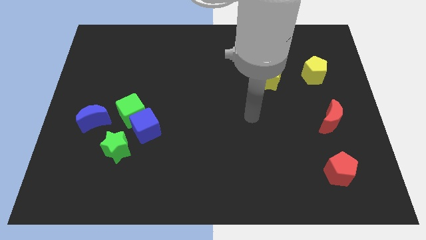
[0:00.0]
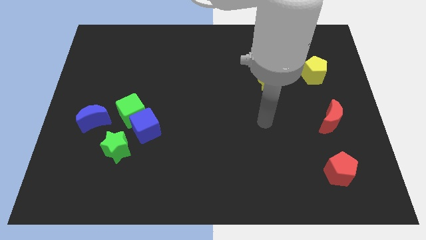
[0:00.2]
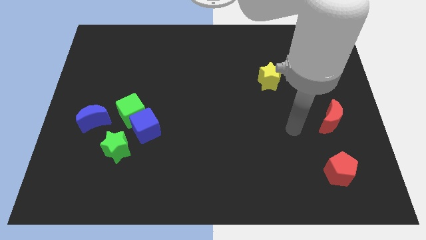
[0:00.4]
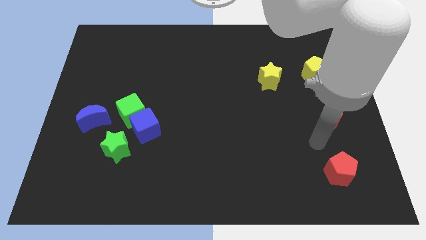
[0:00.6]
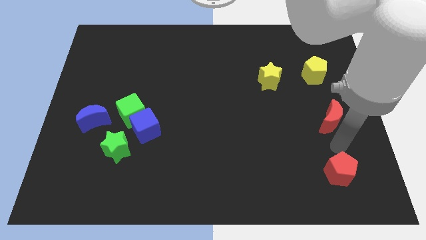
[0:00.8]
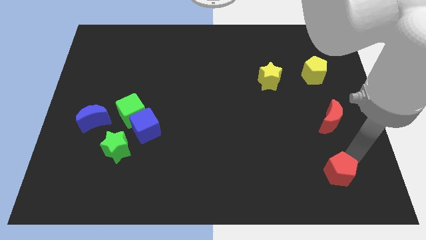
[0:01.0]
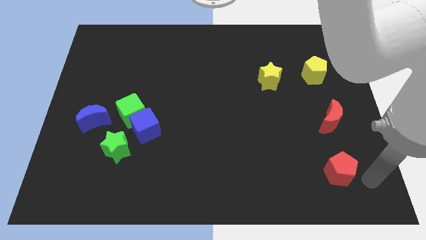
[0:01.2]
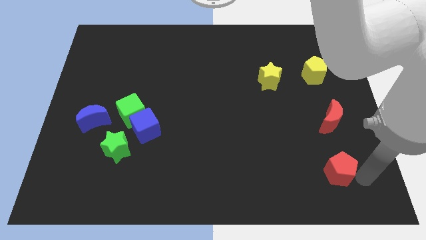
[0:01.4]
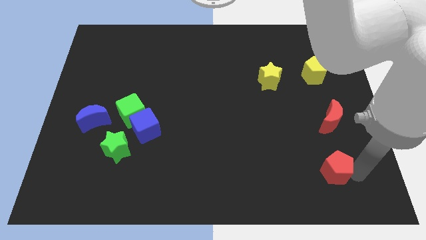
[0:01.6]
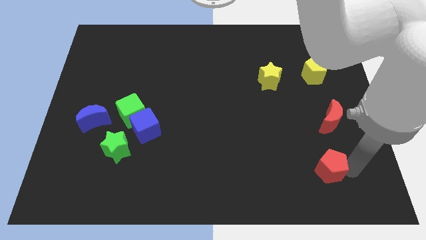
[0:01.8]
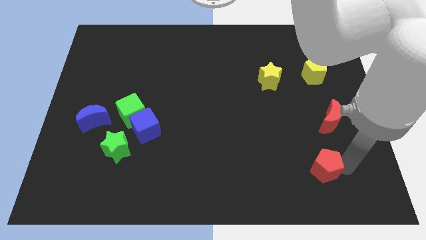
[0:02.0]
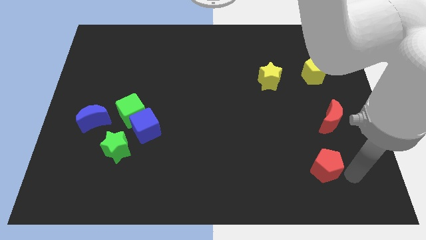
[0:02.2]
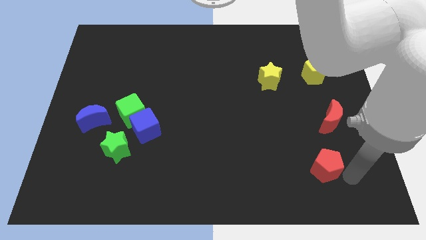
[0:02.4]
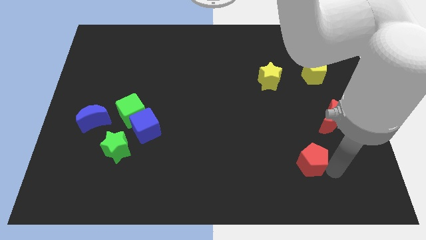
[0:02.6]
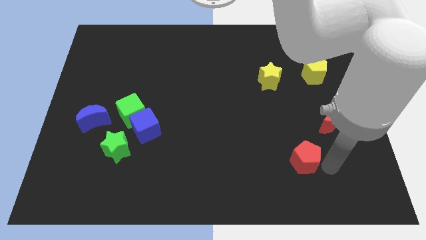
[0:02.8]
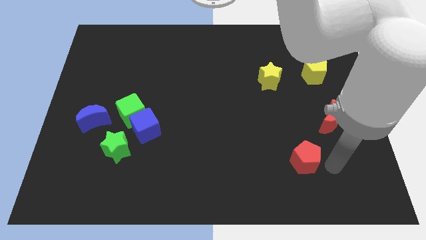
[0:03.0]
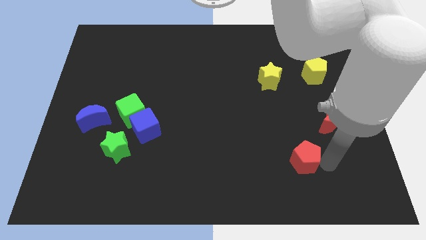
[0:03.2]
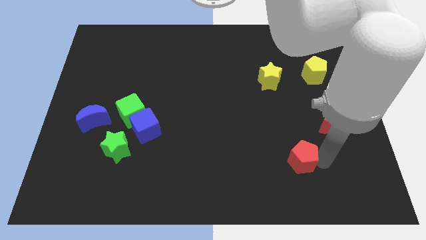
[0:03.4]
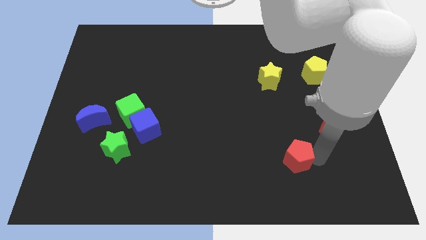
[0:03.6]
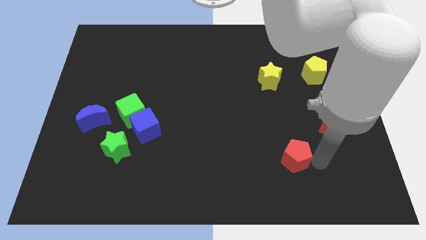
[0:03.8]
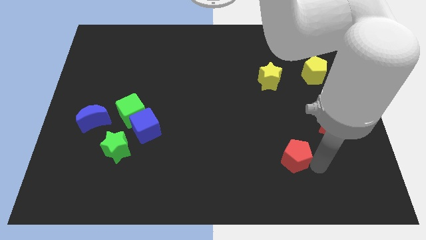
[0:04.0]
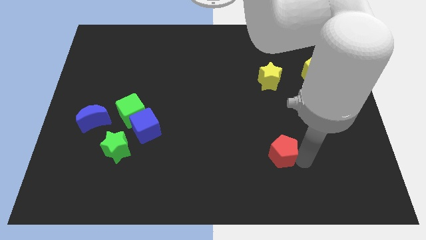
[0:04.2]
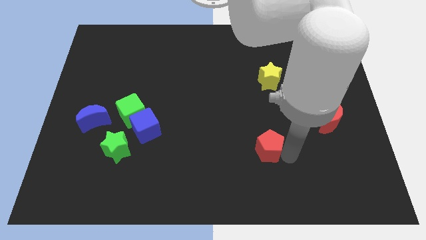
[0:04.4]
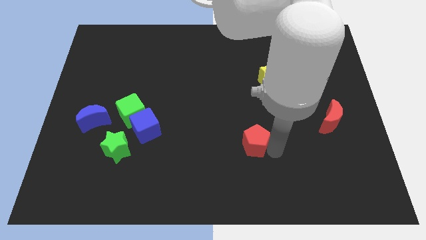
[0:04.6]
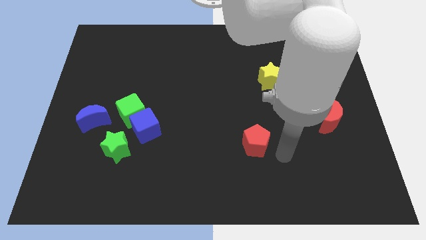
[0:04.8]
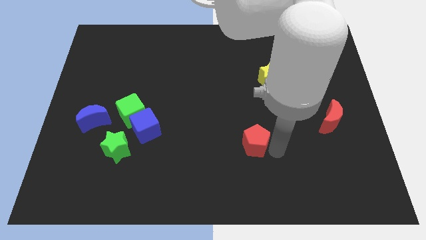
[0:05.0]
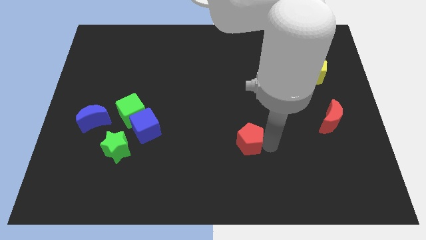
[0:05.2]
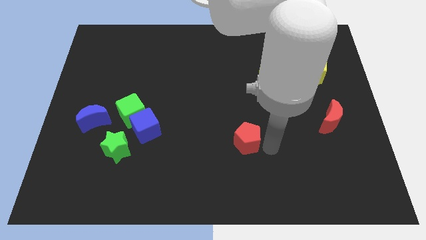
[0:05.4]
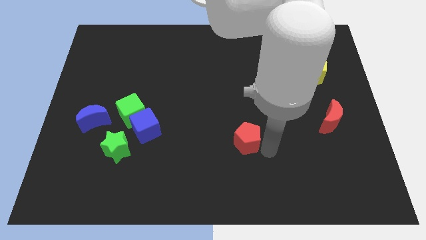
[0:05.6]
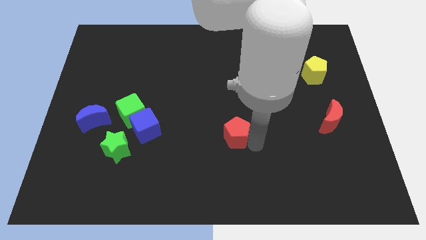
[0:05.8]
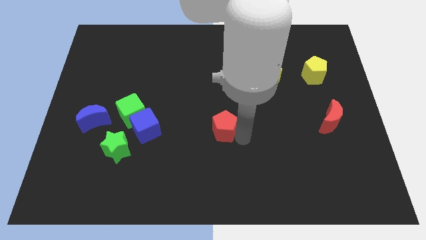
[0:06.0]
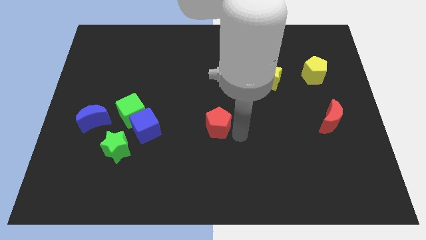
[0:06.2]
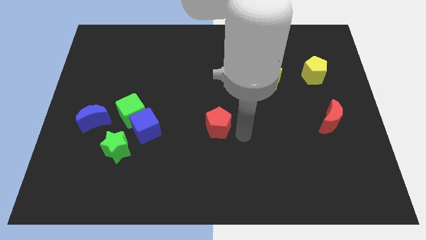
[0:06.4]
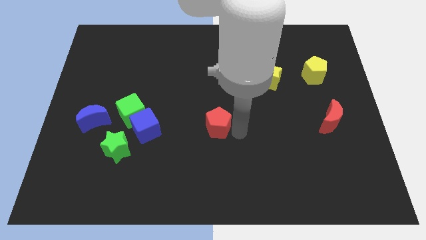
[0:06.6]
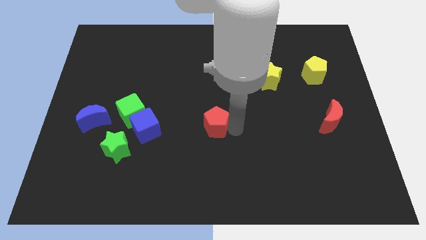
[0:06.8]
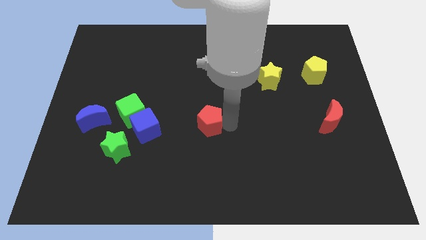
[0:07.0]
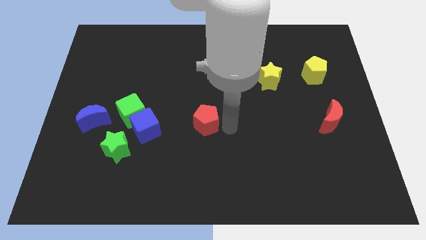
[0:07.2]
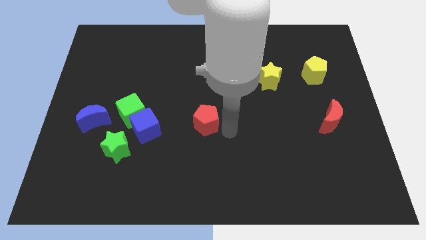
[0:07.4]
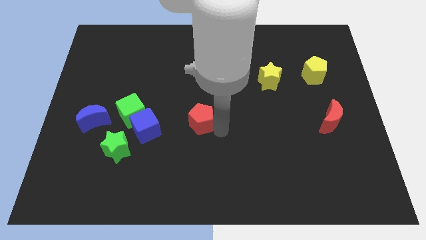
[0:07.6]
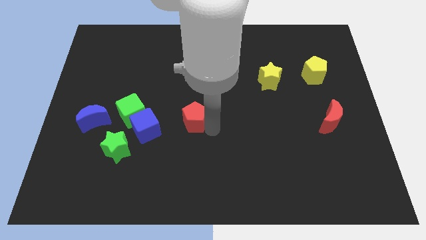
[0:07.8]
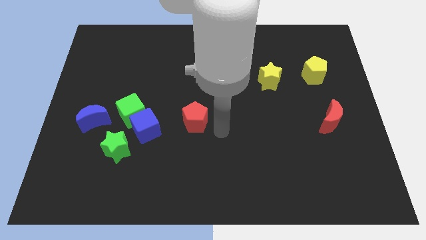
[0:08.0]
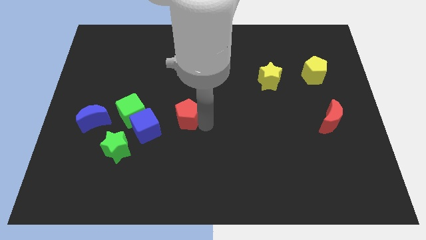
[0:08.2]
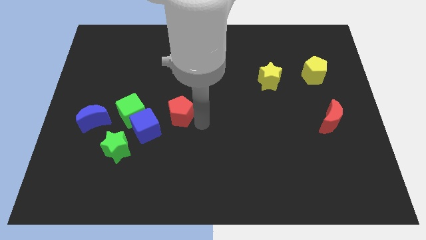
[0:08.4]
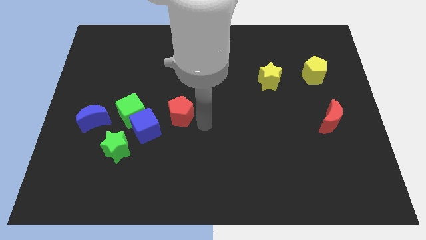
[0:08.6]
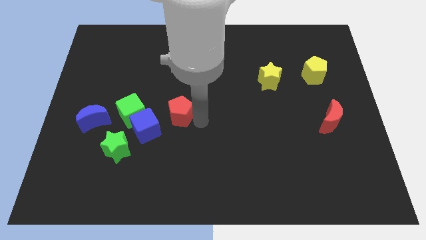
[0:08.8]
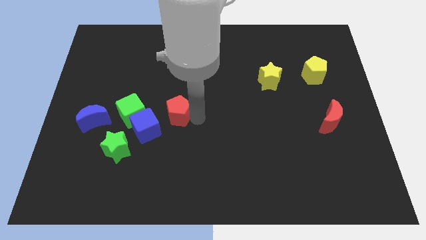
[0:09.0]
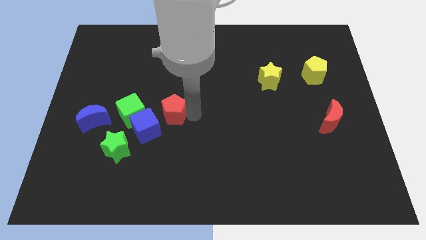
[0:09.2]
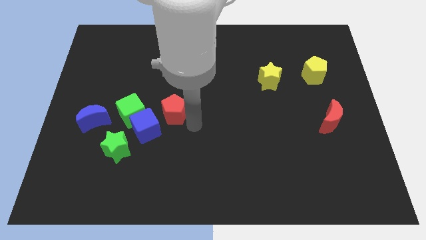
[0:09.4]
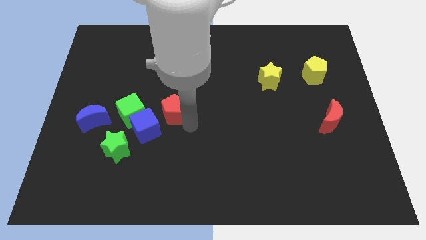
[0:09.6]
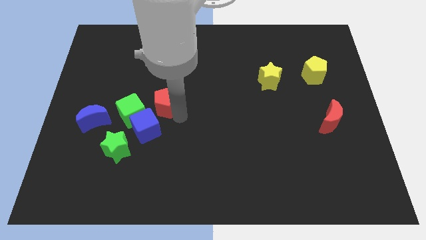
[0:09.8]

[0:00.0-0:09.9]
slide the red pentagon diagonally up and to the right of the green cube

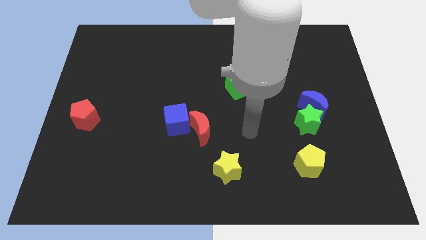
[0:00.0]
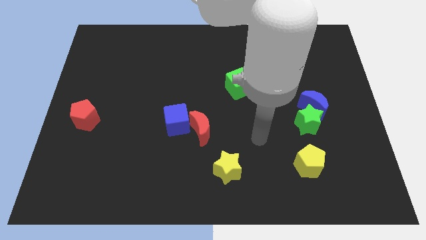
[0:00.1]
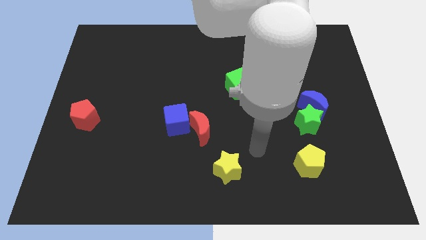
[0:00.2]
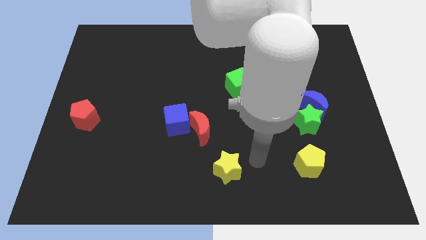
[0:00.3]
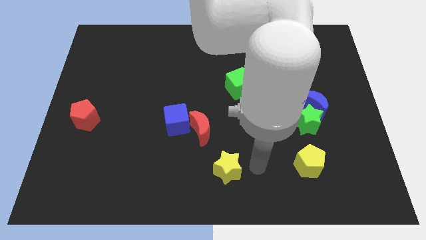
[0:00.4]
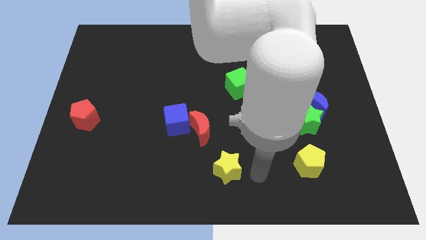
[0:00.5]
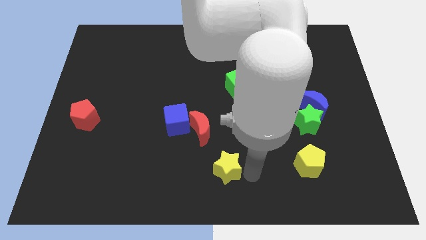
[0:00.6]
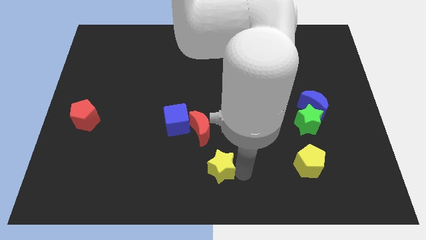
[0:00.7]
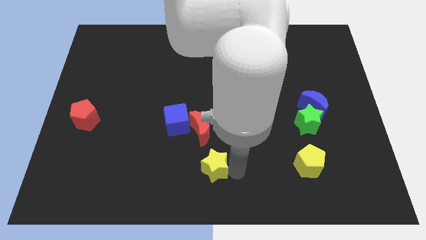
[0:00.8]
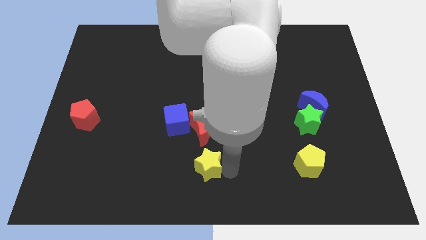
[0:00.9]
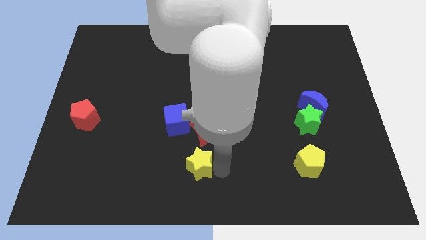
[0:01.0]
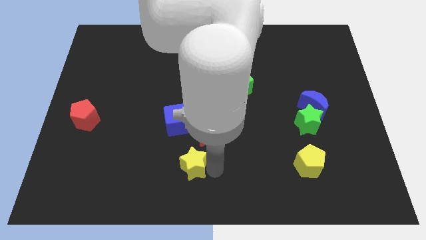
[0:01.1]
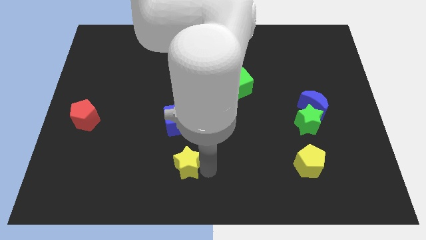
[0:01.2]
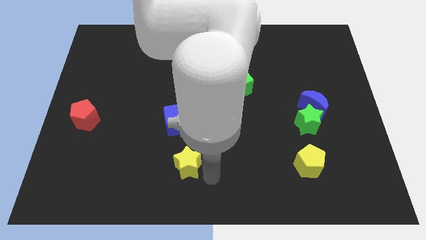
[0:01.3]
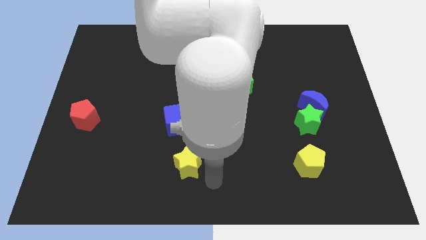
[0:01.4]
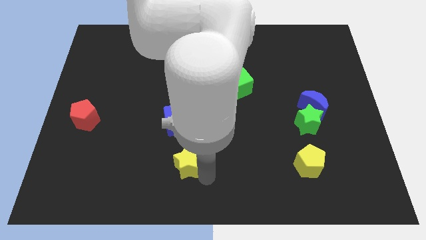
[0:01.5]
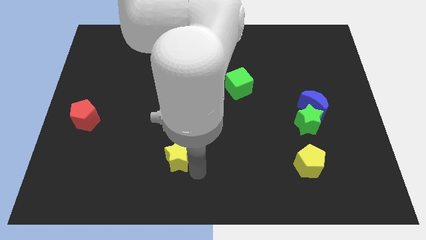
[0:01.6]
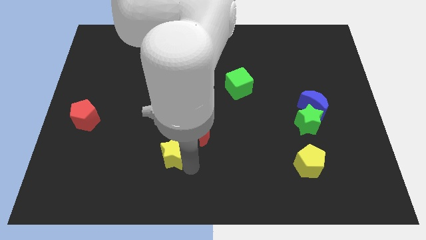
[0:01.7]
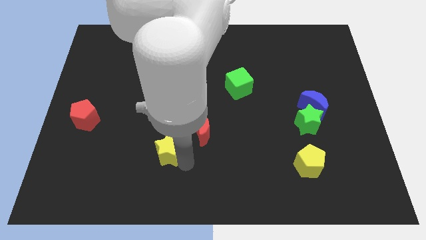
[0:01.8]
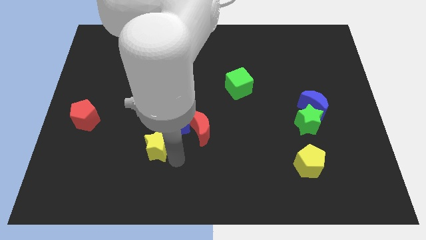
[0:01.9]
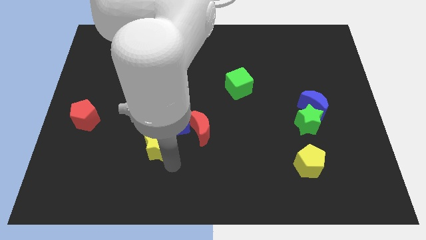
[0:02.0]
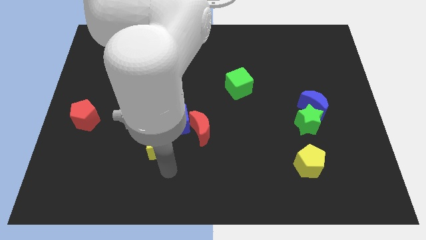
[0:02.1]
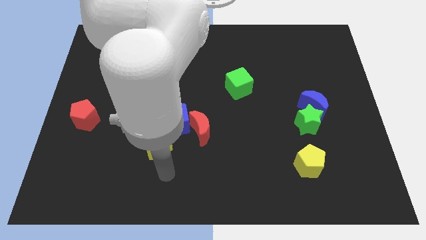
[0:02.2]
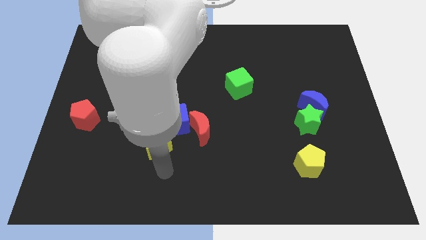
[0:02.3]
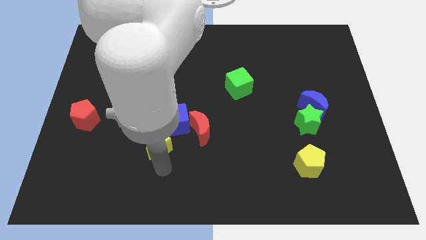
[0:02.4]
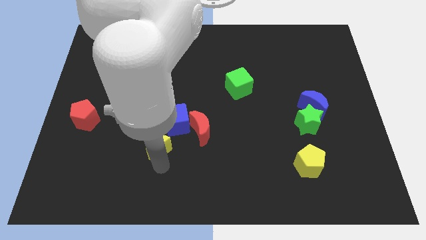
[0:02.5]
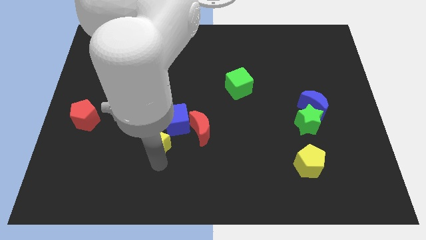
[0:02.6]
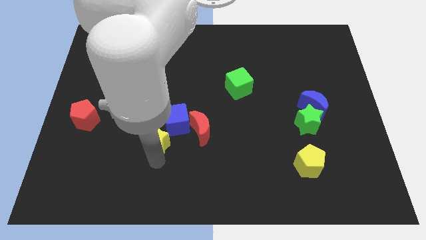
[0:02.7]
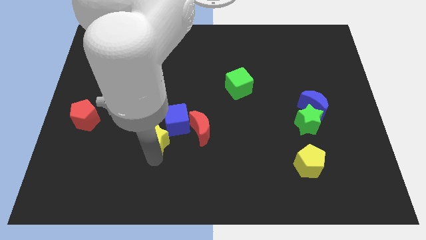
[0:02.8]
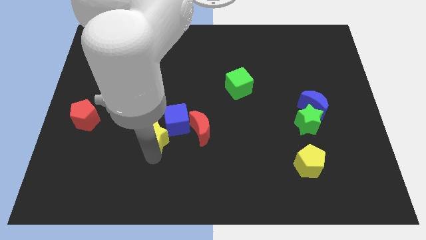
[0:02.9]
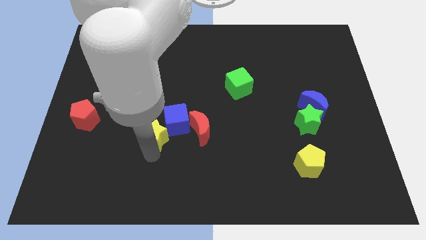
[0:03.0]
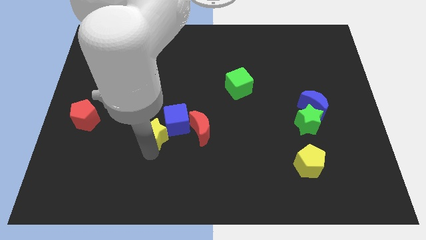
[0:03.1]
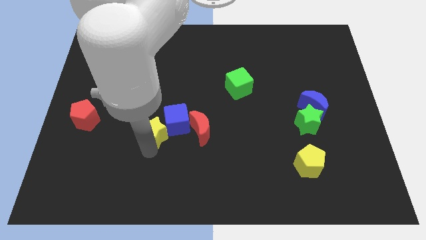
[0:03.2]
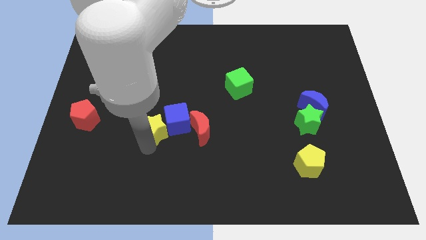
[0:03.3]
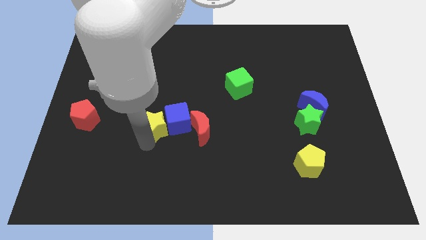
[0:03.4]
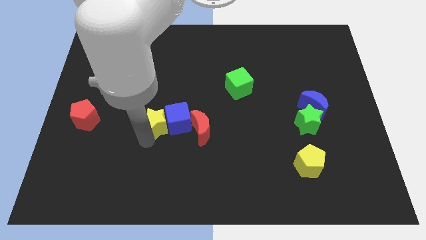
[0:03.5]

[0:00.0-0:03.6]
push the yellow star to the top left side of the blue cube
